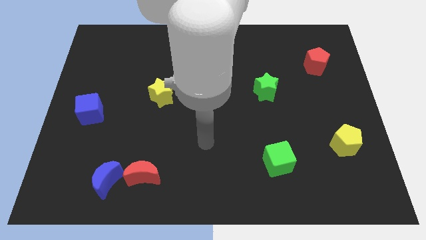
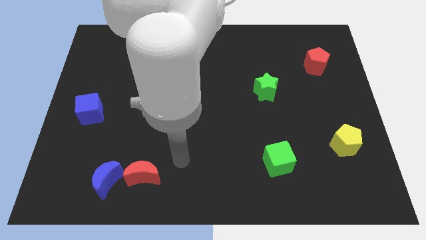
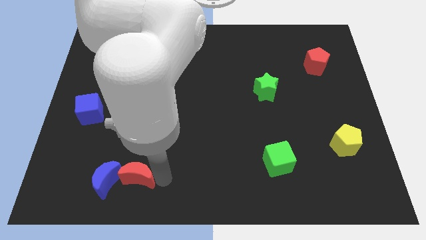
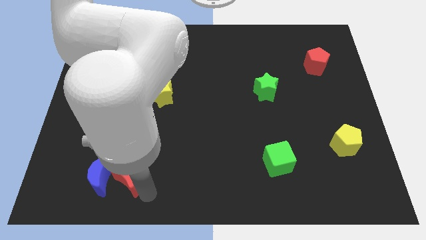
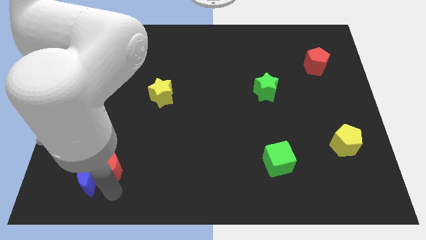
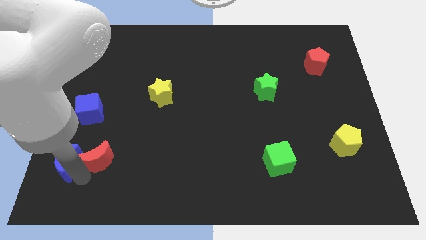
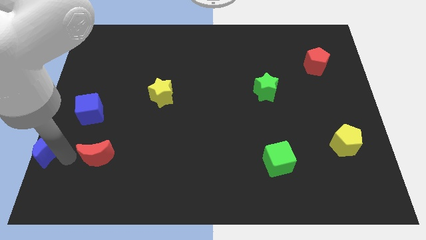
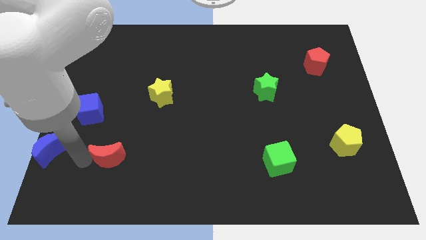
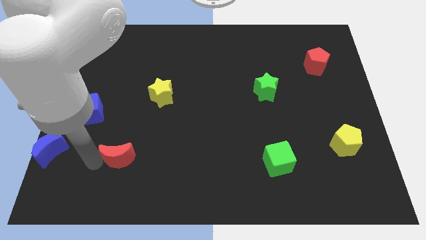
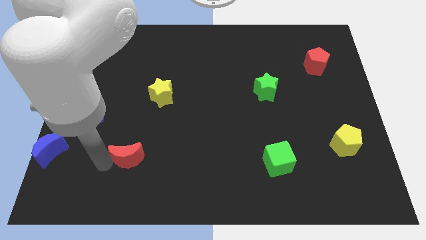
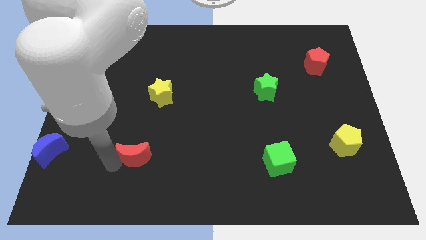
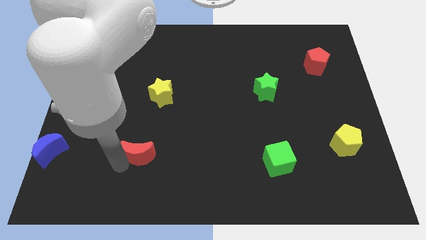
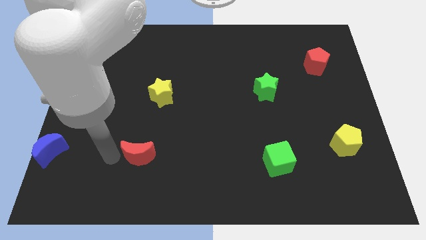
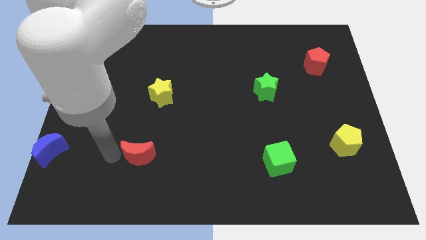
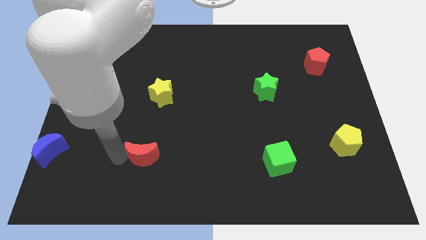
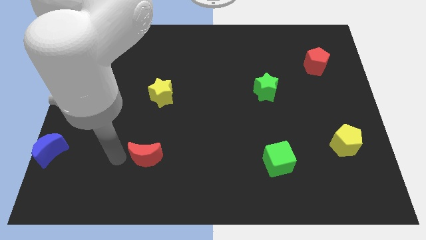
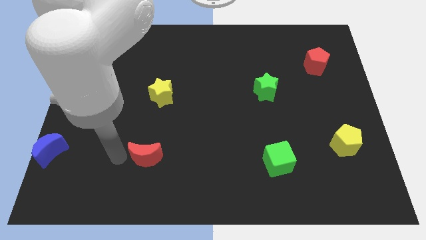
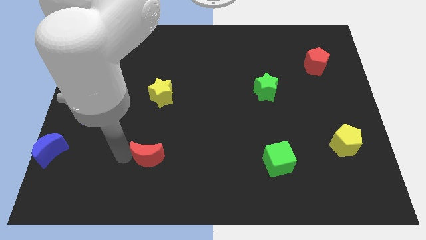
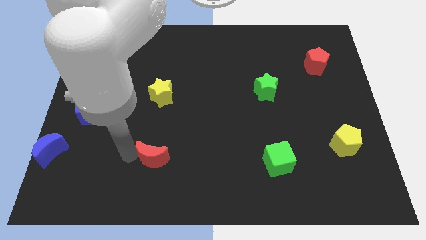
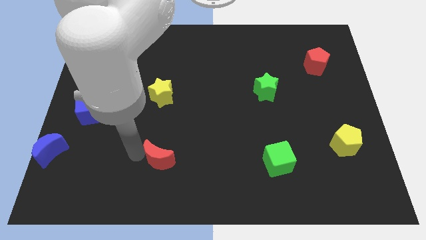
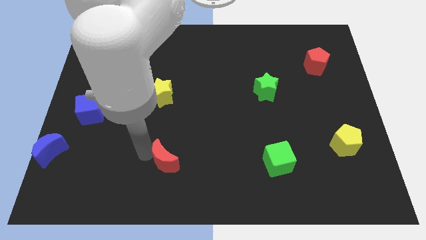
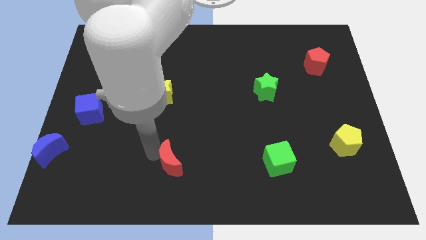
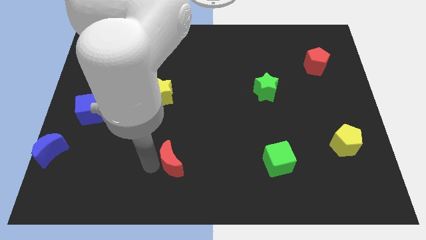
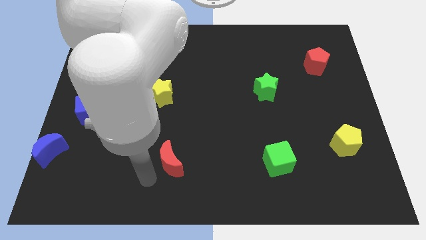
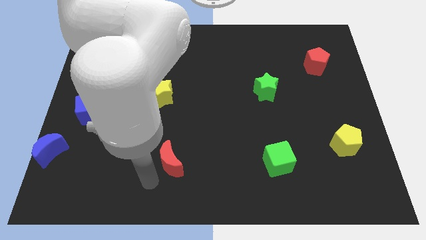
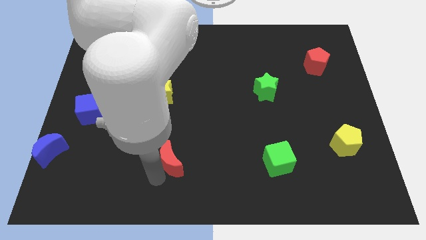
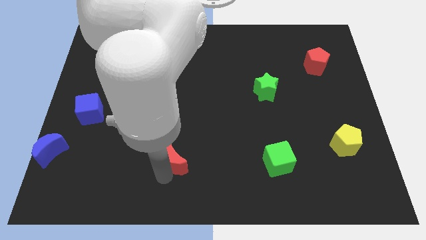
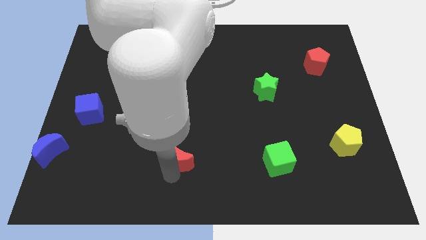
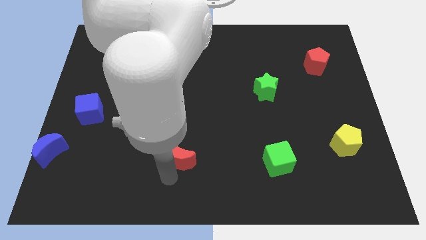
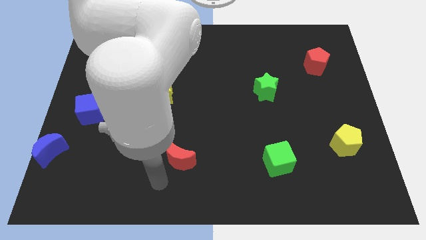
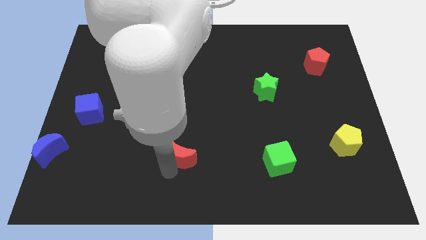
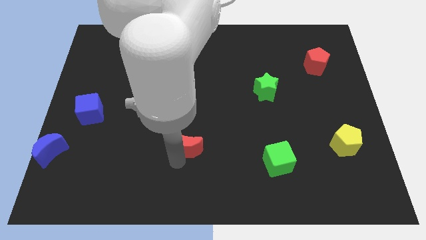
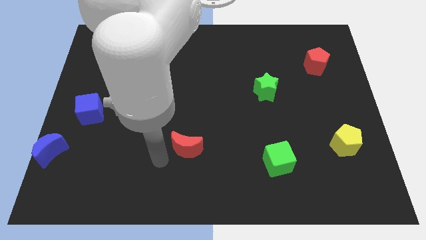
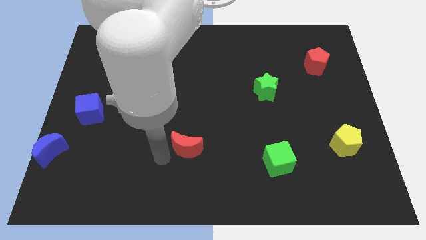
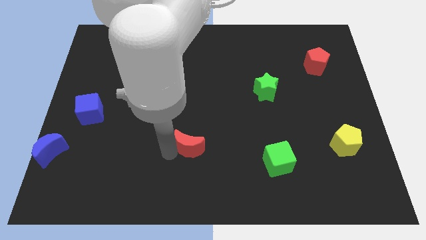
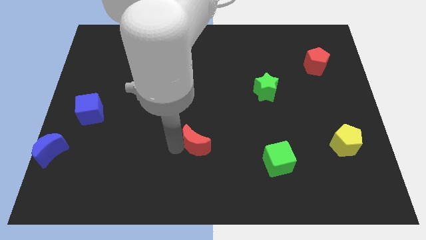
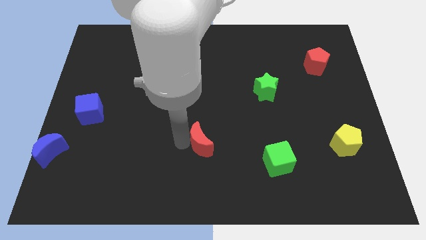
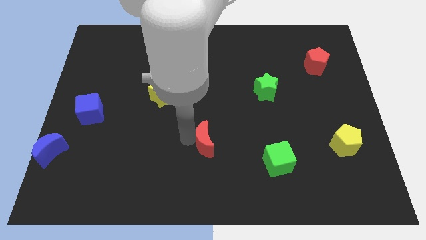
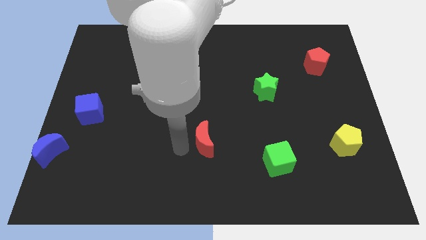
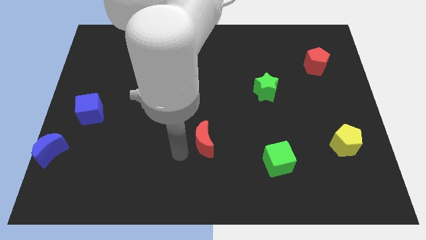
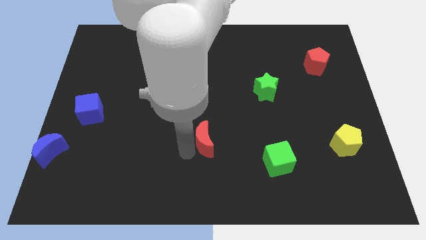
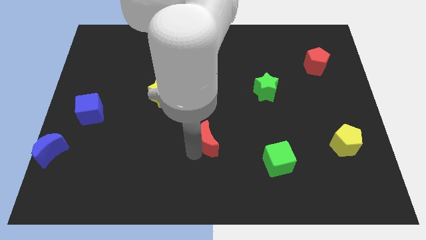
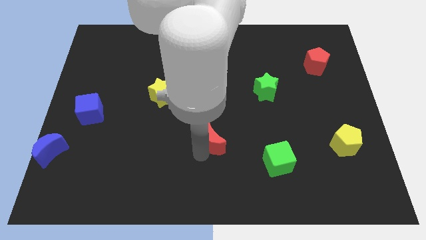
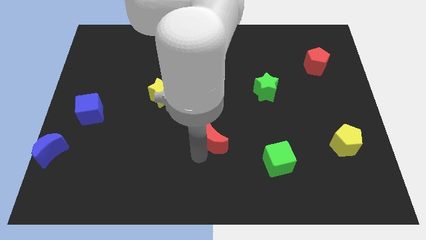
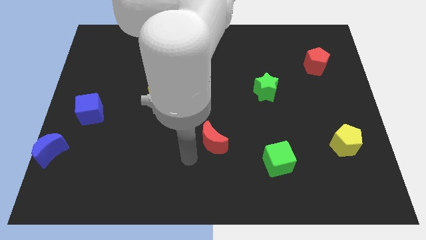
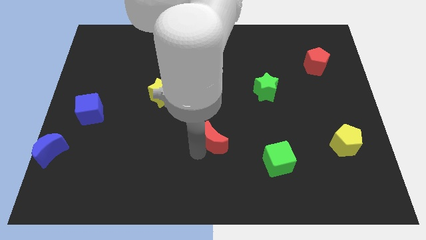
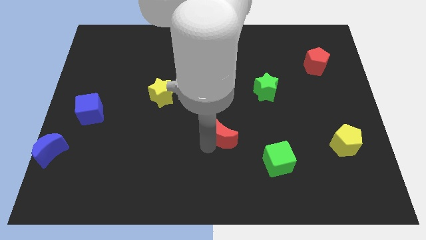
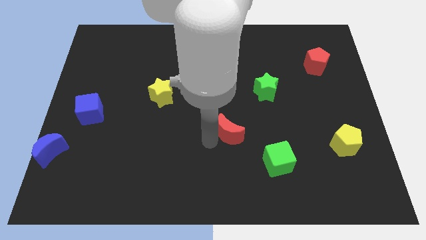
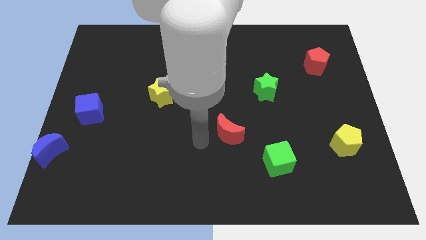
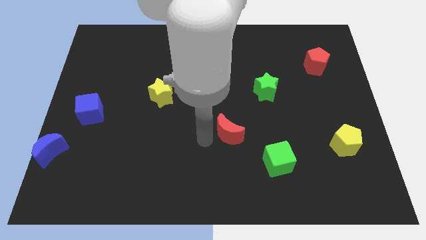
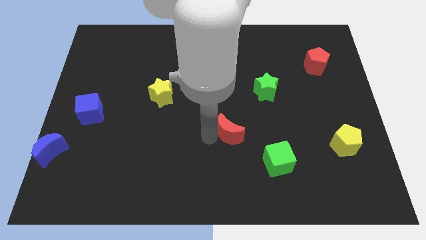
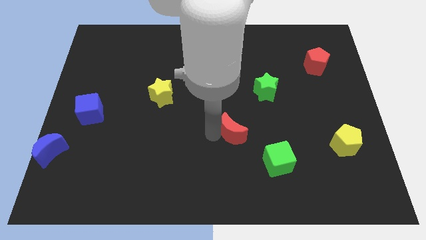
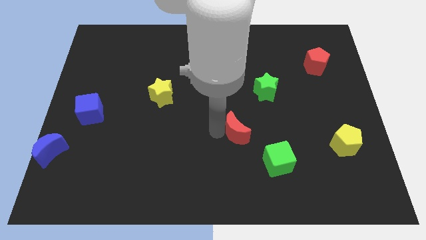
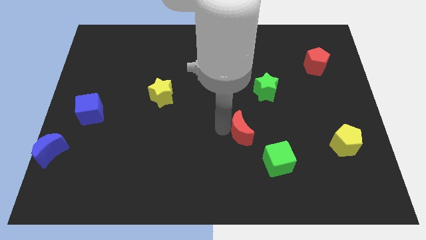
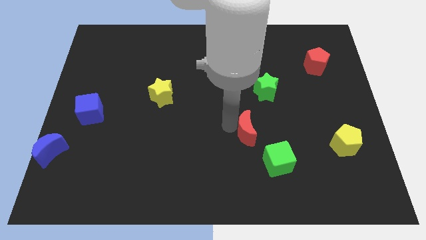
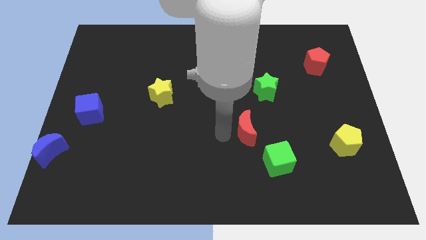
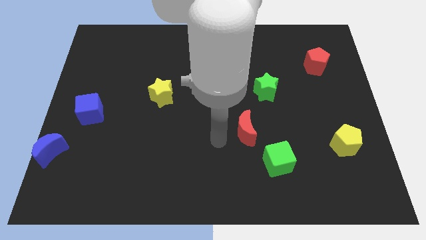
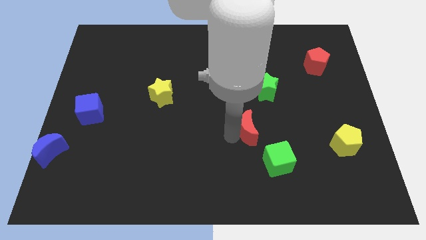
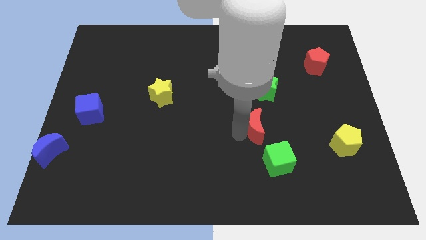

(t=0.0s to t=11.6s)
move the red moon above the green cube

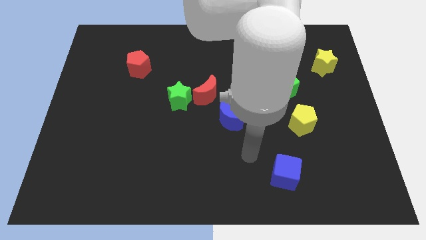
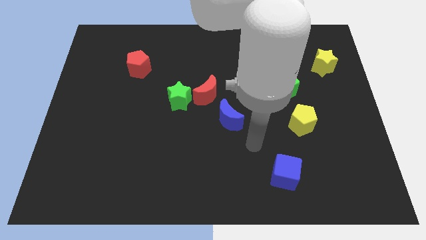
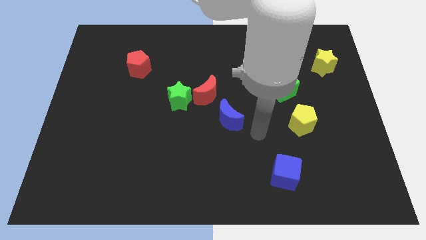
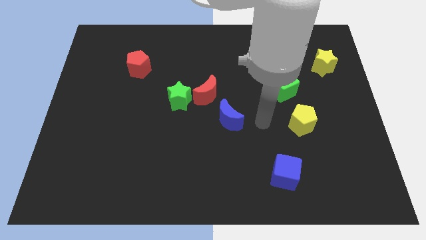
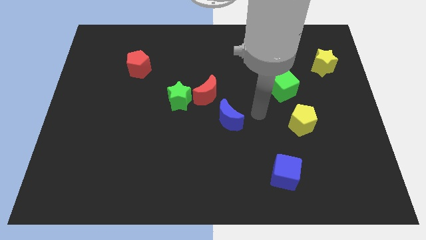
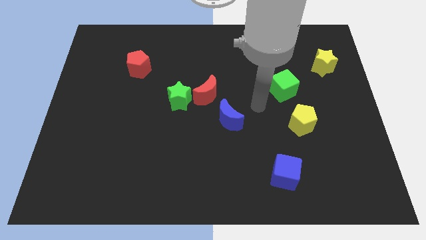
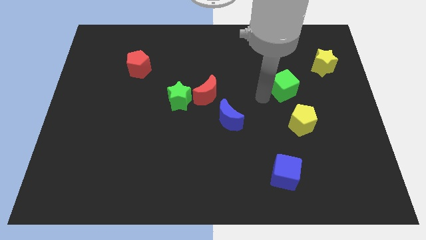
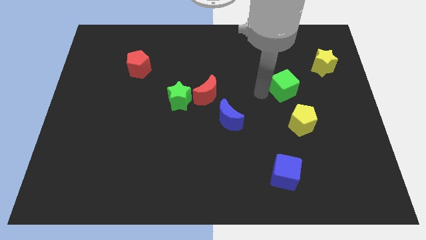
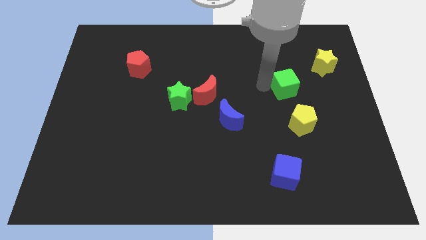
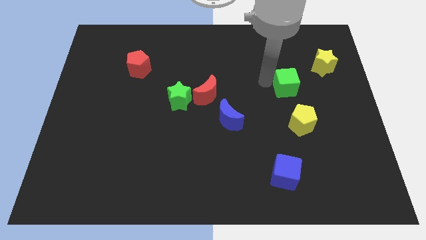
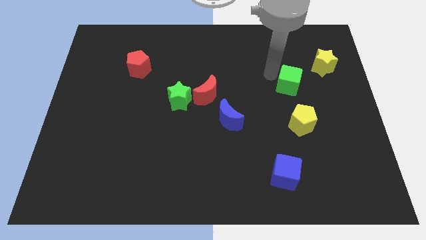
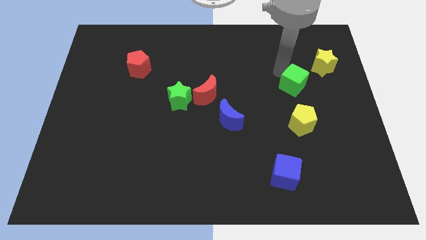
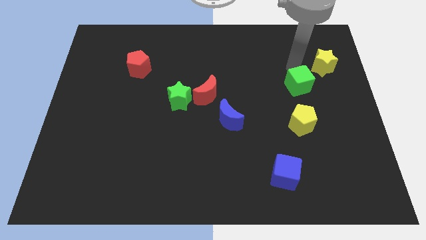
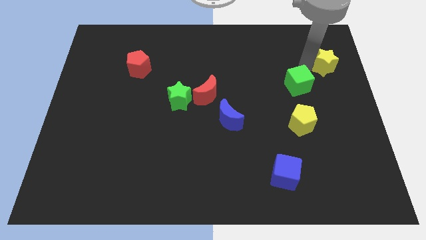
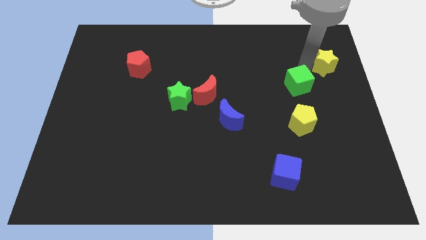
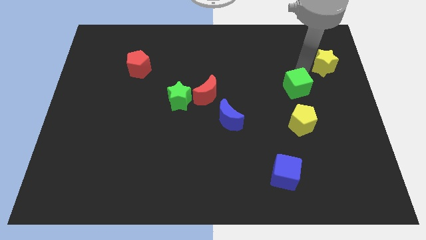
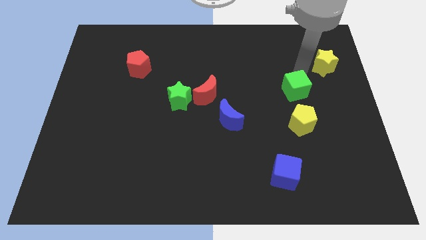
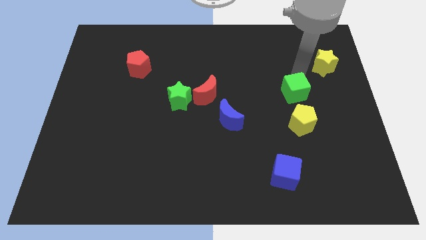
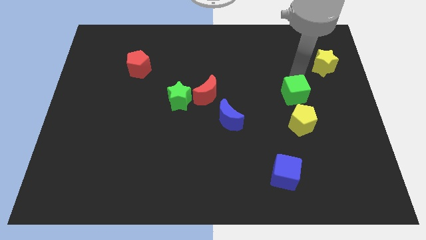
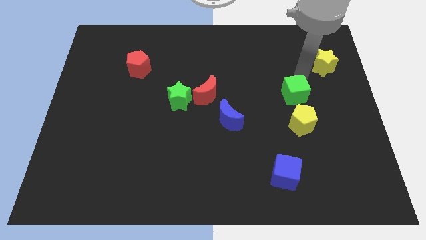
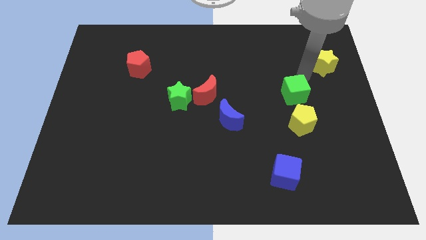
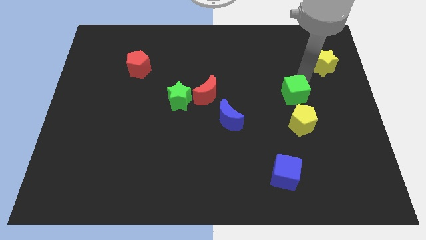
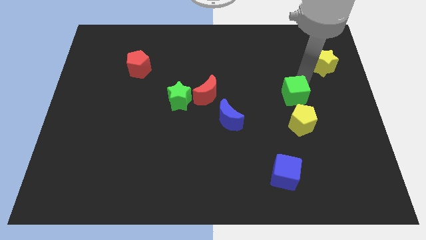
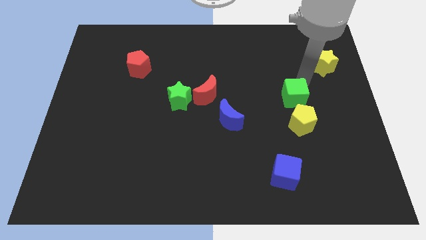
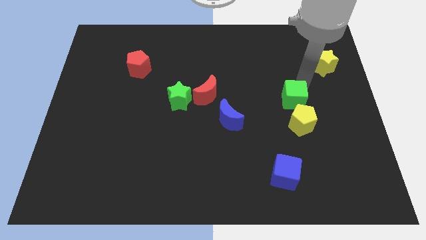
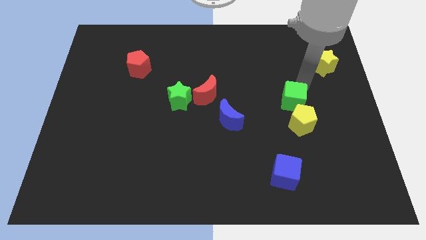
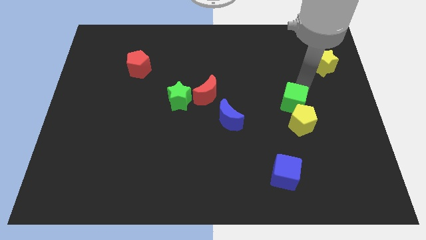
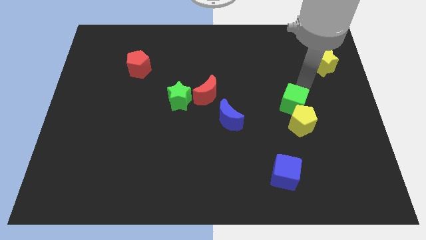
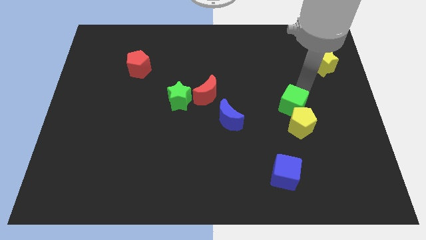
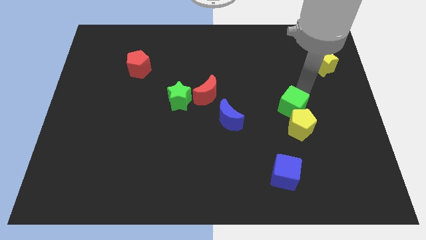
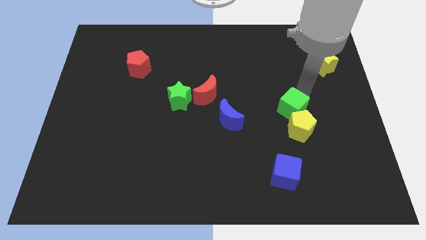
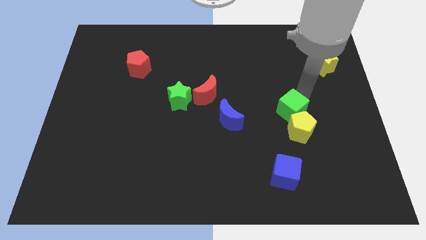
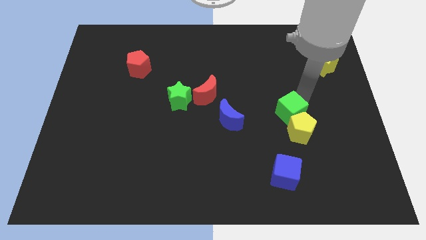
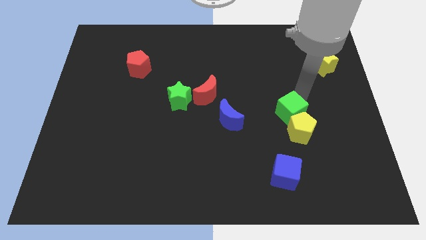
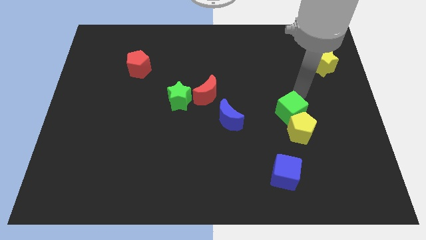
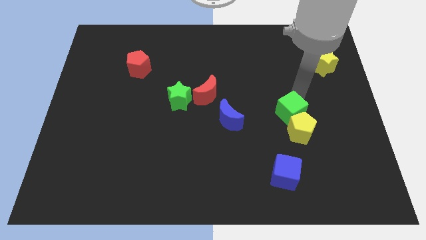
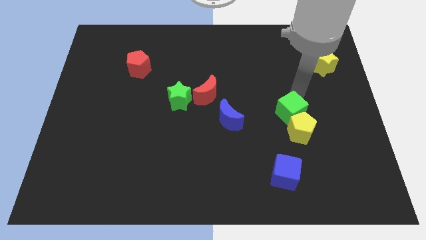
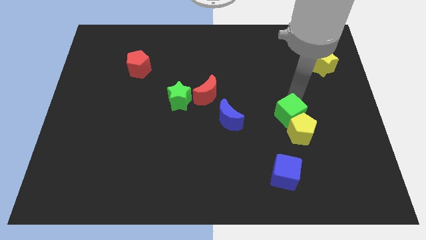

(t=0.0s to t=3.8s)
move the green cube to the top of the blue cube
